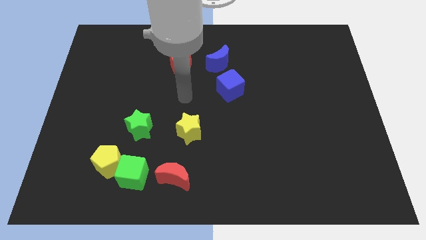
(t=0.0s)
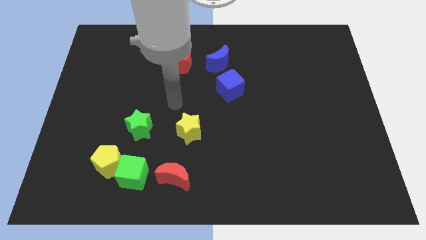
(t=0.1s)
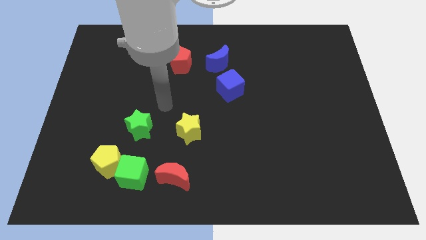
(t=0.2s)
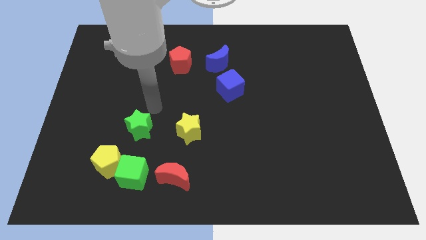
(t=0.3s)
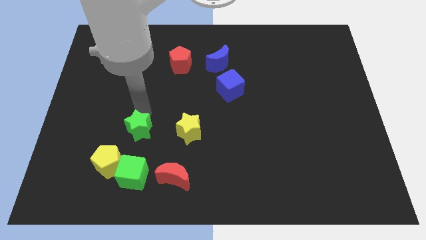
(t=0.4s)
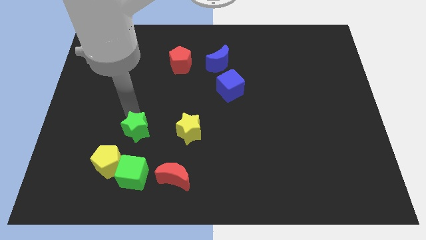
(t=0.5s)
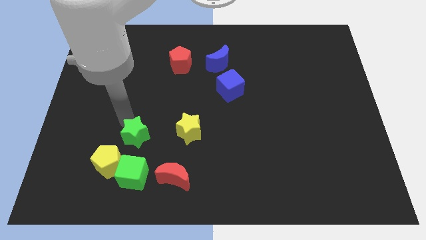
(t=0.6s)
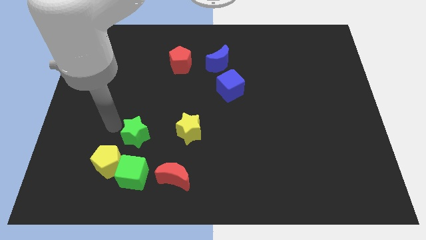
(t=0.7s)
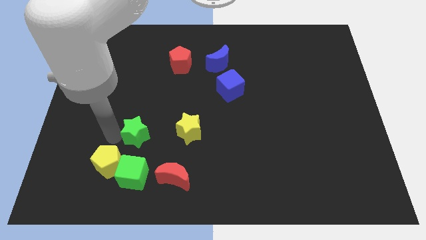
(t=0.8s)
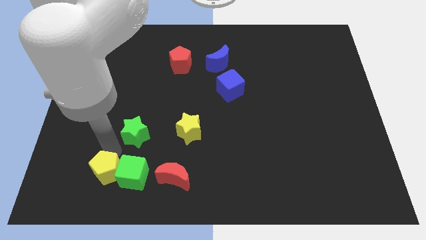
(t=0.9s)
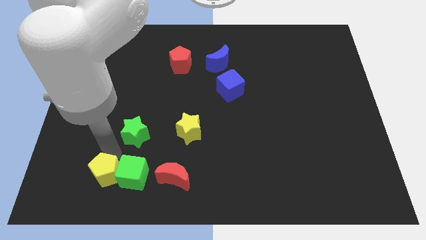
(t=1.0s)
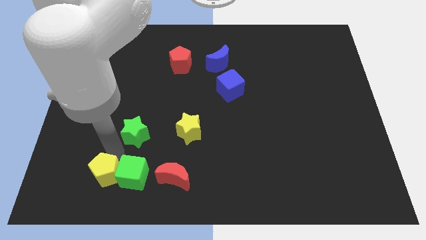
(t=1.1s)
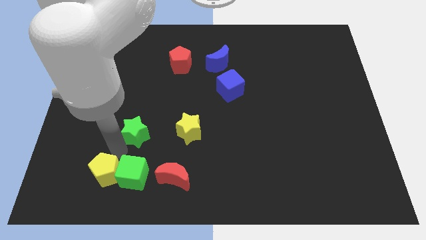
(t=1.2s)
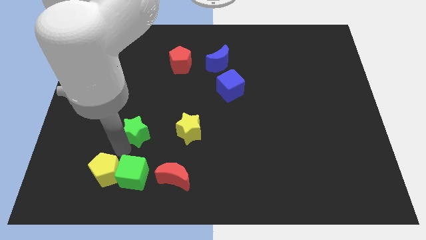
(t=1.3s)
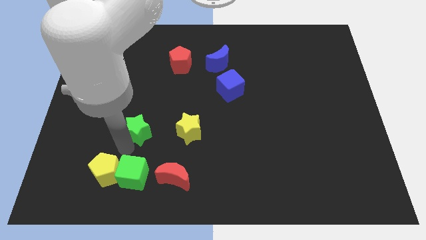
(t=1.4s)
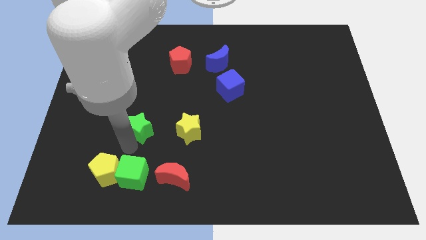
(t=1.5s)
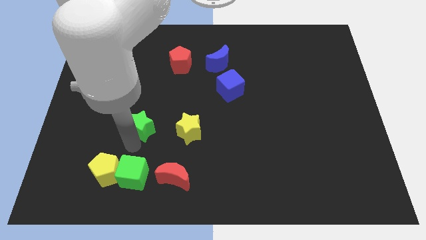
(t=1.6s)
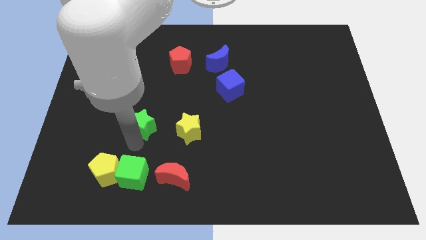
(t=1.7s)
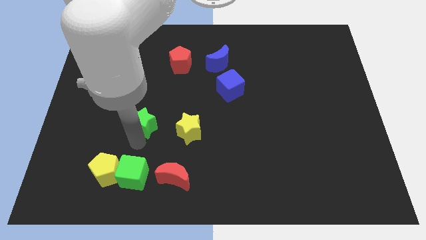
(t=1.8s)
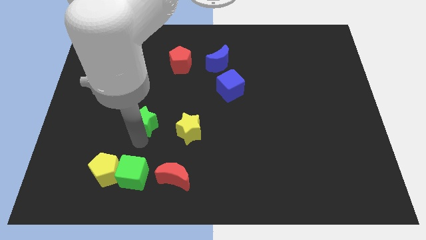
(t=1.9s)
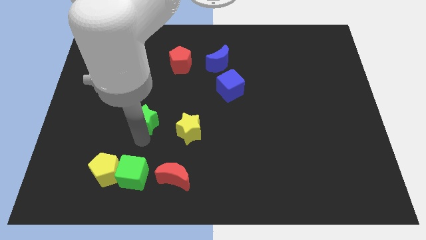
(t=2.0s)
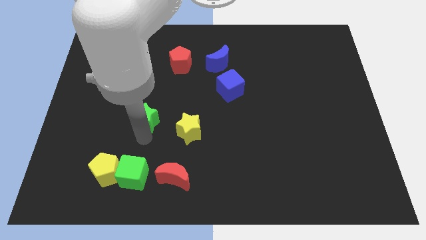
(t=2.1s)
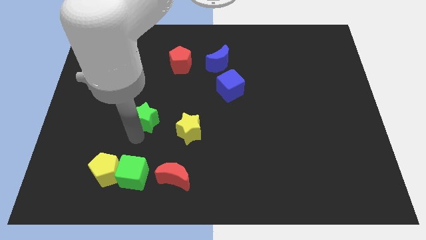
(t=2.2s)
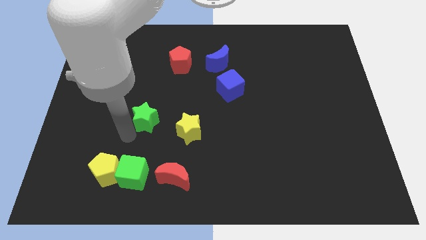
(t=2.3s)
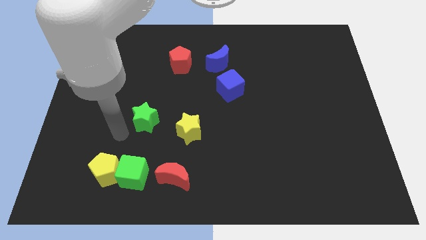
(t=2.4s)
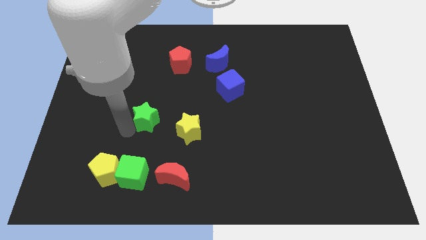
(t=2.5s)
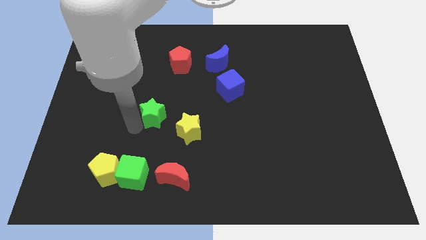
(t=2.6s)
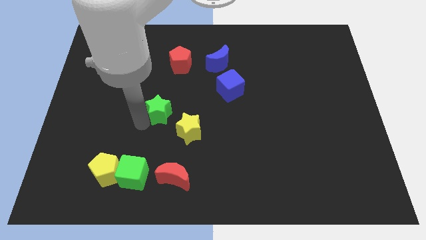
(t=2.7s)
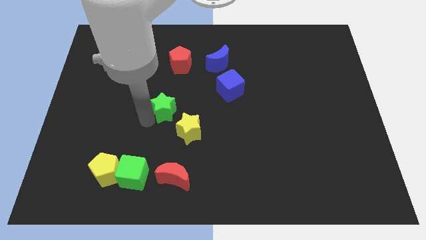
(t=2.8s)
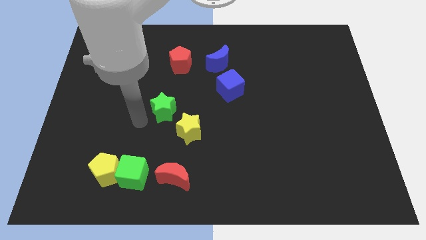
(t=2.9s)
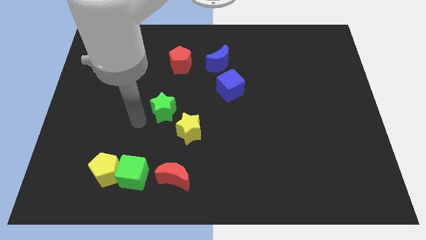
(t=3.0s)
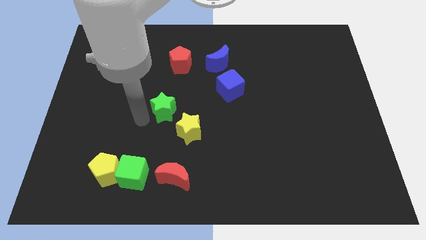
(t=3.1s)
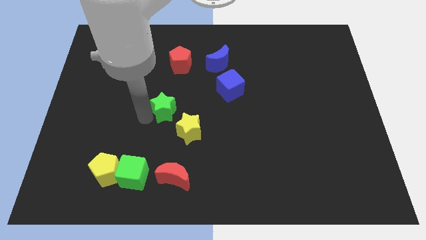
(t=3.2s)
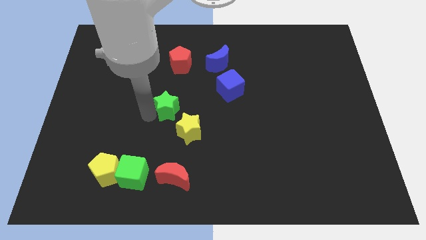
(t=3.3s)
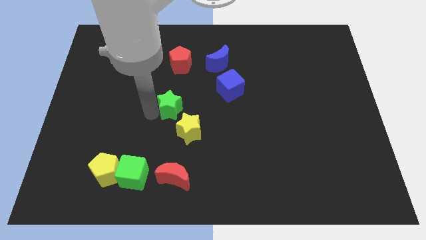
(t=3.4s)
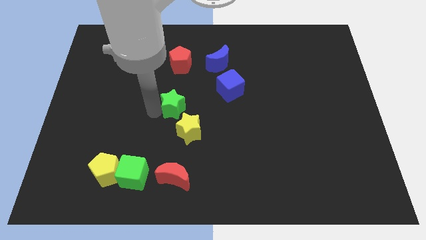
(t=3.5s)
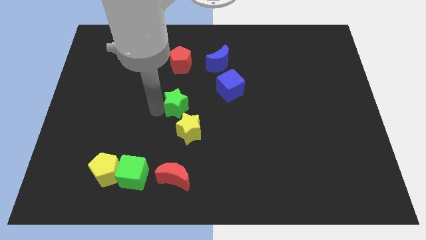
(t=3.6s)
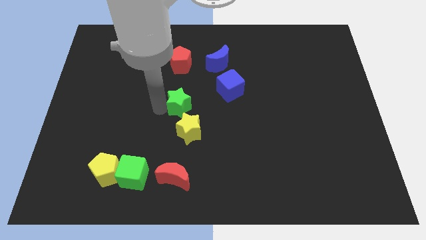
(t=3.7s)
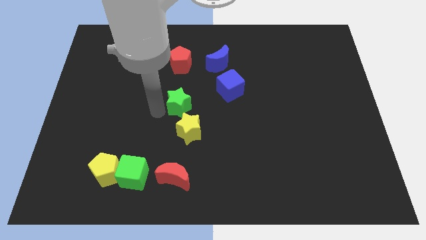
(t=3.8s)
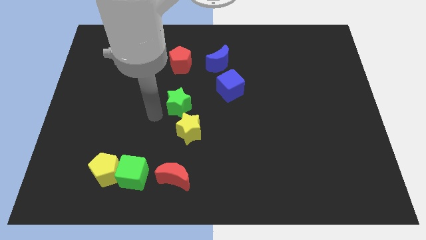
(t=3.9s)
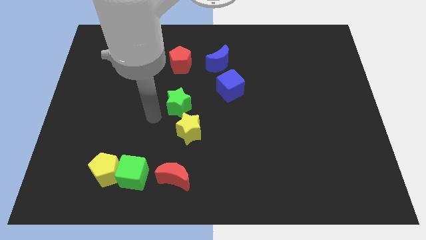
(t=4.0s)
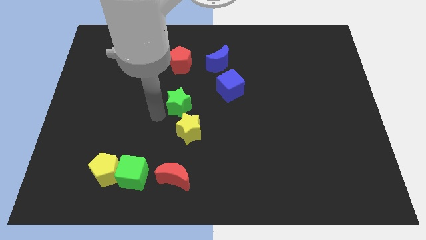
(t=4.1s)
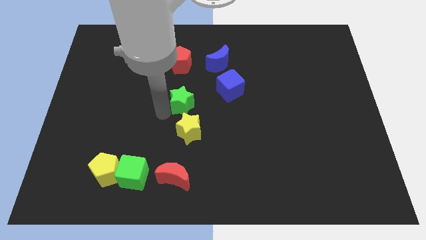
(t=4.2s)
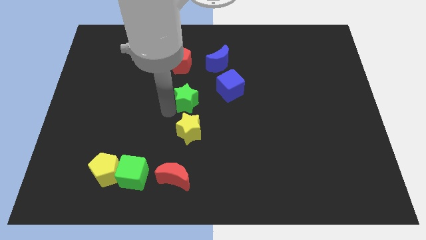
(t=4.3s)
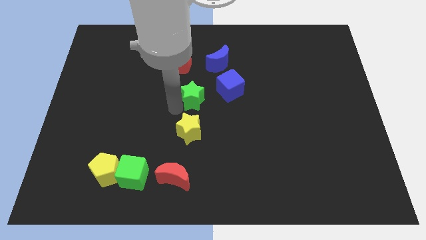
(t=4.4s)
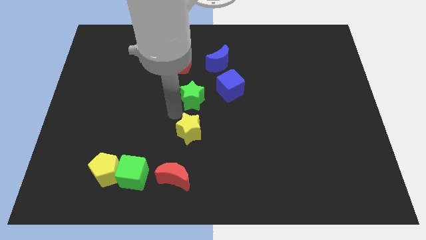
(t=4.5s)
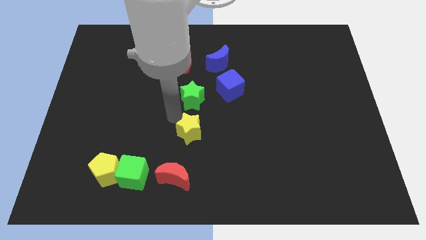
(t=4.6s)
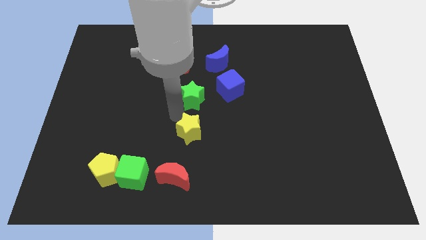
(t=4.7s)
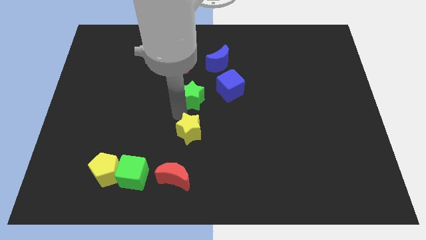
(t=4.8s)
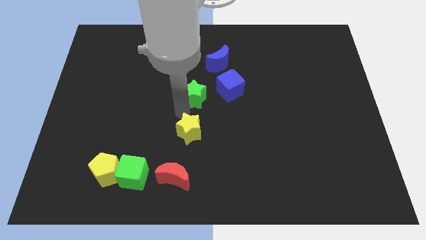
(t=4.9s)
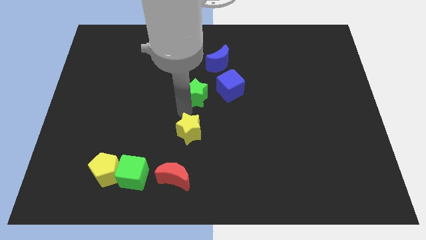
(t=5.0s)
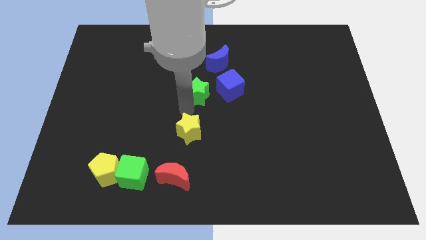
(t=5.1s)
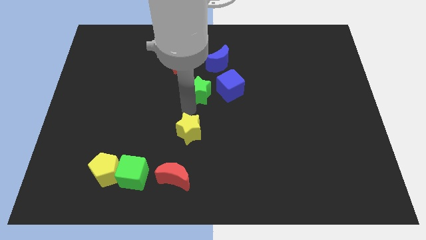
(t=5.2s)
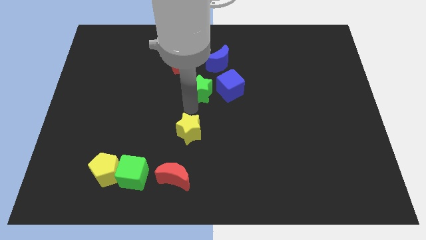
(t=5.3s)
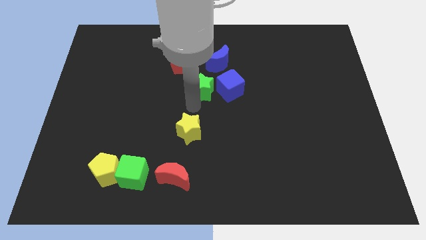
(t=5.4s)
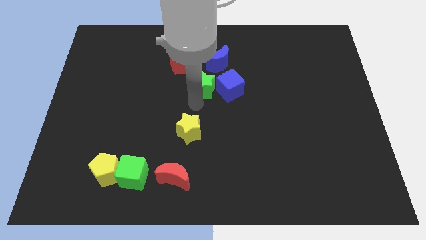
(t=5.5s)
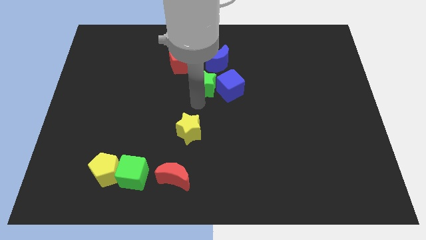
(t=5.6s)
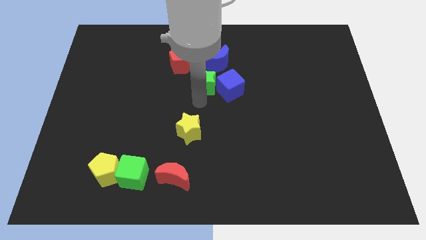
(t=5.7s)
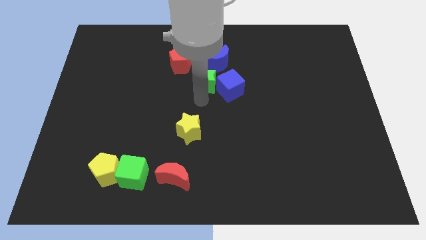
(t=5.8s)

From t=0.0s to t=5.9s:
push the green star upwards and right

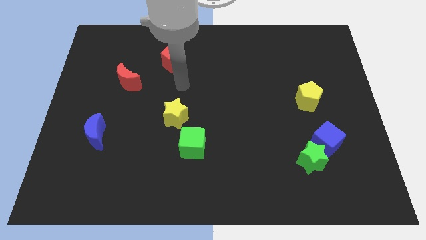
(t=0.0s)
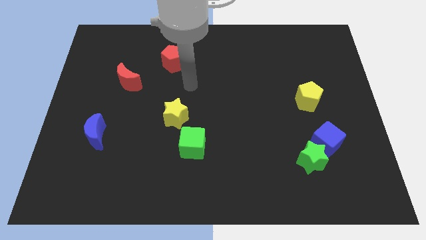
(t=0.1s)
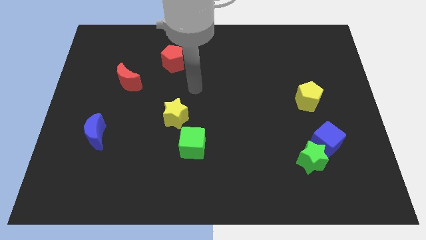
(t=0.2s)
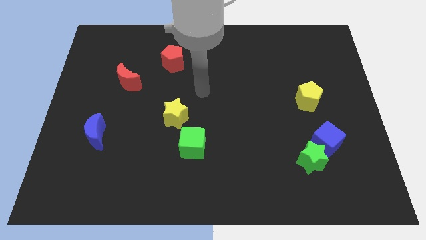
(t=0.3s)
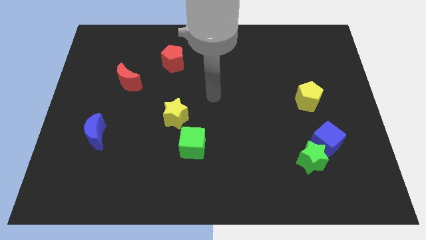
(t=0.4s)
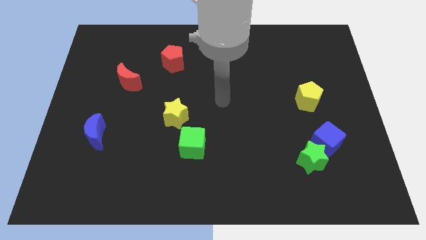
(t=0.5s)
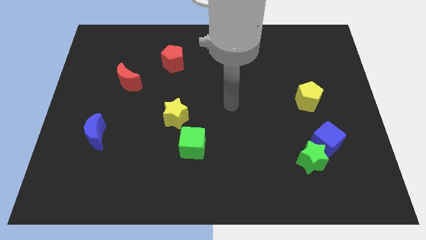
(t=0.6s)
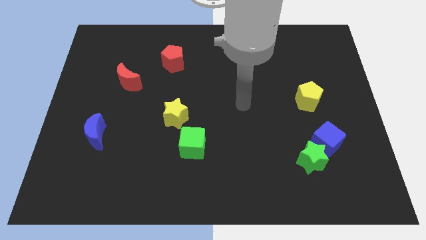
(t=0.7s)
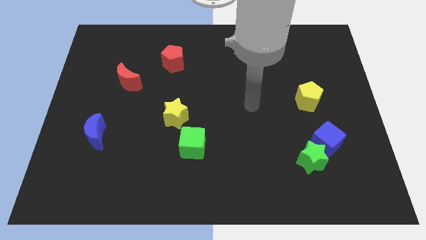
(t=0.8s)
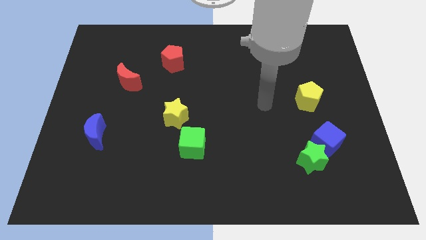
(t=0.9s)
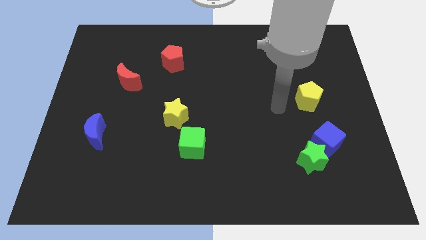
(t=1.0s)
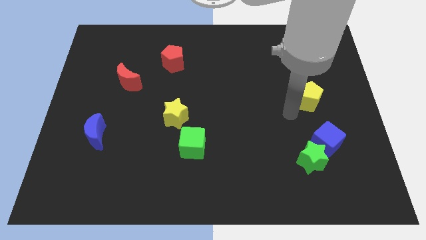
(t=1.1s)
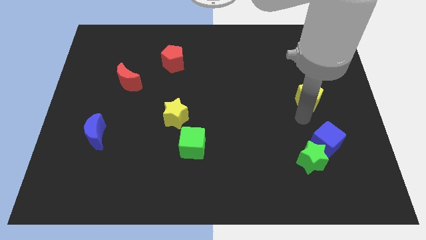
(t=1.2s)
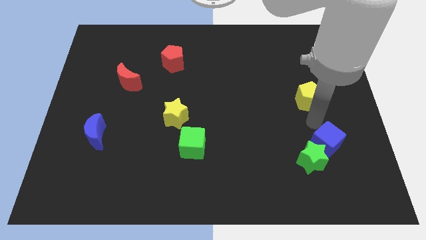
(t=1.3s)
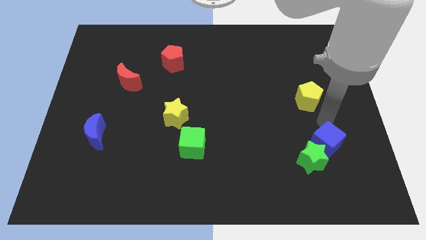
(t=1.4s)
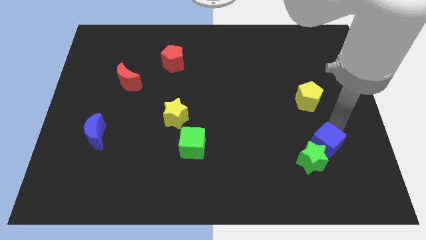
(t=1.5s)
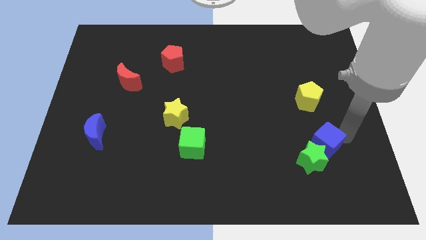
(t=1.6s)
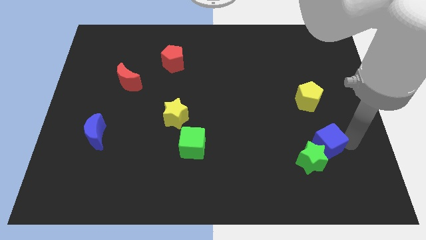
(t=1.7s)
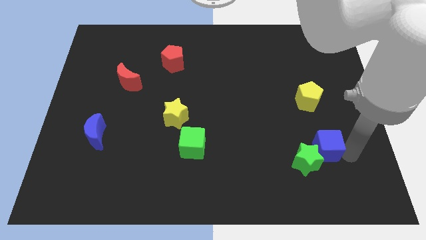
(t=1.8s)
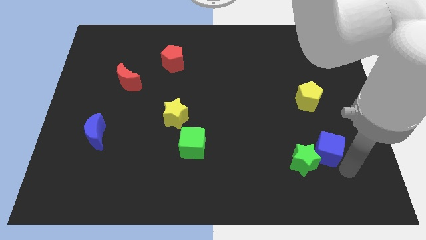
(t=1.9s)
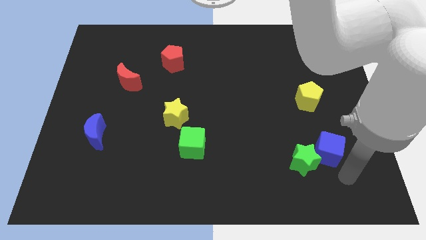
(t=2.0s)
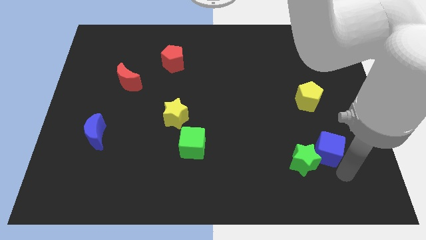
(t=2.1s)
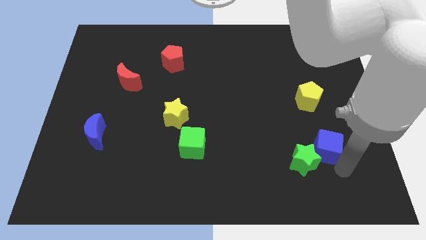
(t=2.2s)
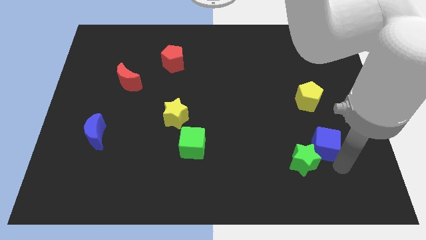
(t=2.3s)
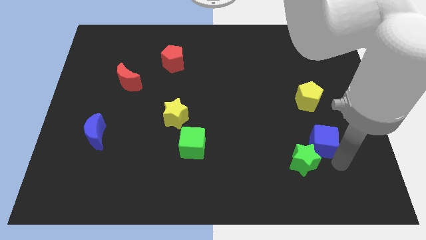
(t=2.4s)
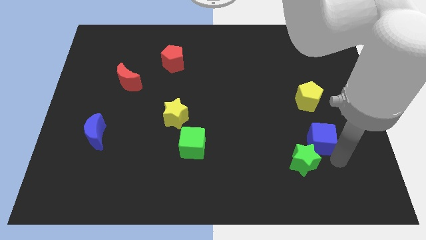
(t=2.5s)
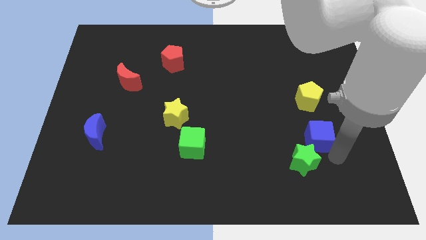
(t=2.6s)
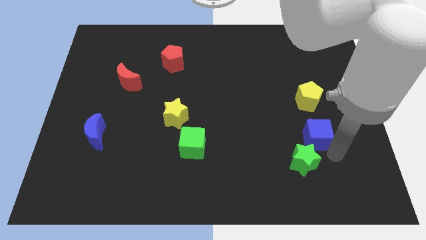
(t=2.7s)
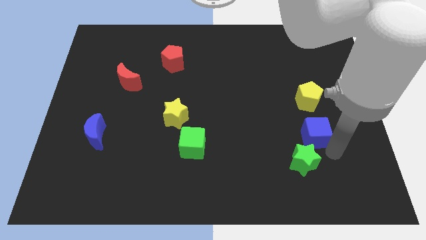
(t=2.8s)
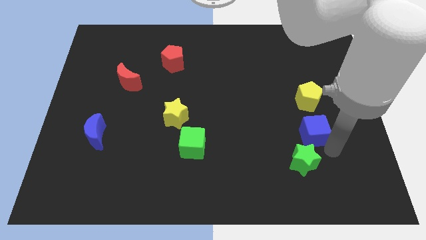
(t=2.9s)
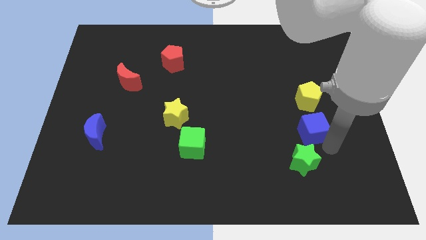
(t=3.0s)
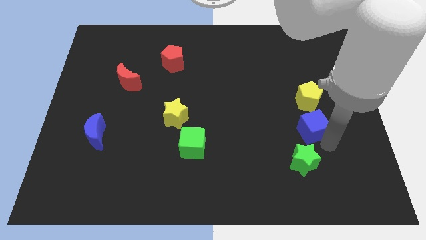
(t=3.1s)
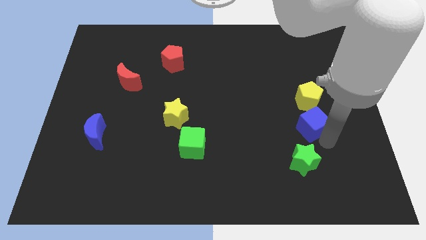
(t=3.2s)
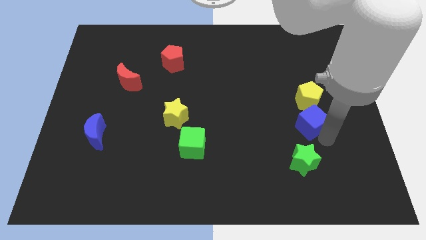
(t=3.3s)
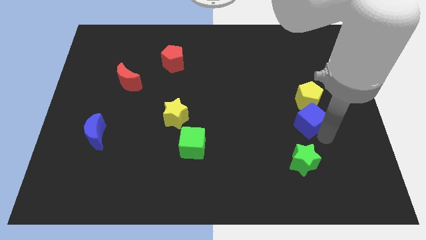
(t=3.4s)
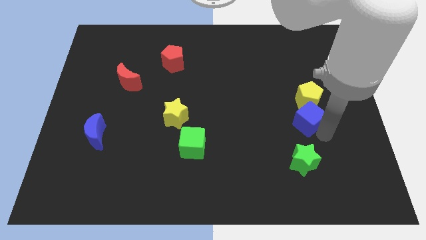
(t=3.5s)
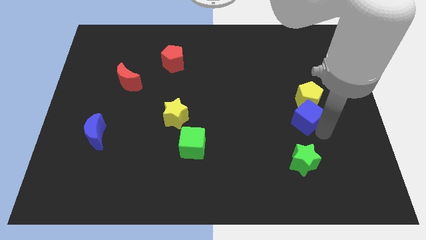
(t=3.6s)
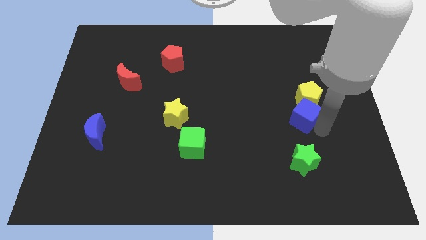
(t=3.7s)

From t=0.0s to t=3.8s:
slightly push the blue cube up and to the left diagonally
